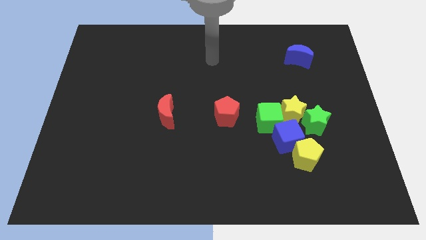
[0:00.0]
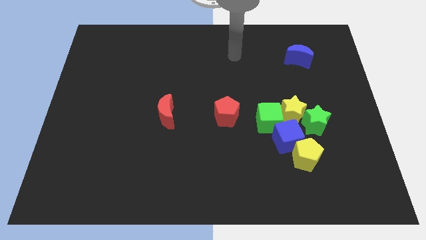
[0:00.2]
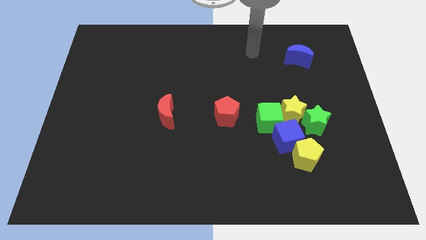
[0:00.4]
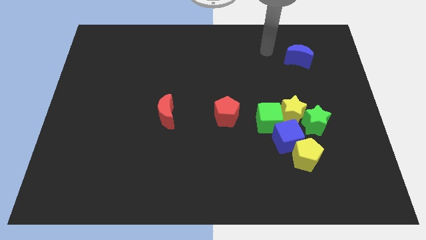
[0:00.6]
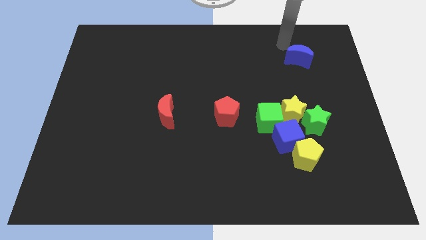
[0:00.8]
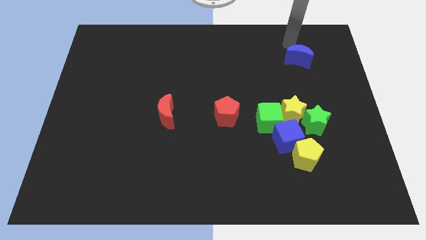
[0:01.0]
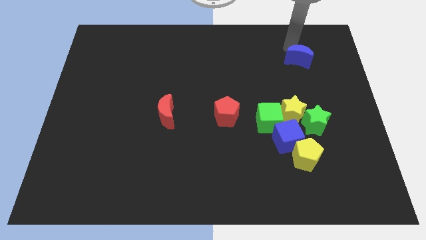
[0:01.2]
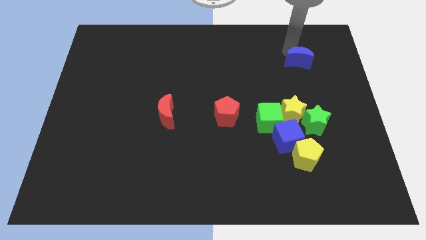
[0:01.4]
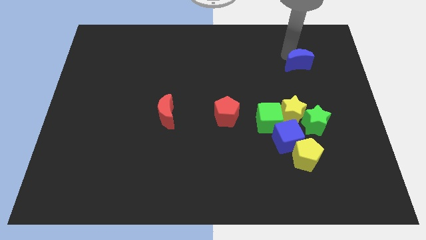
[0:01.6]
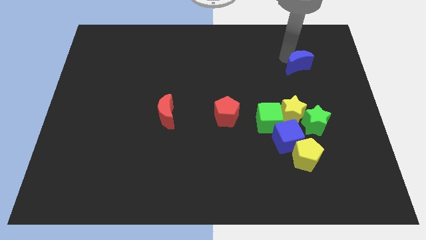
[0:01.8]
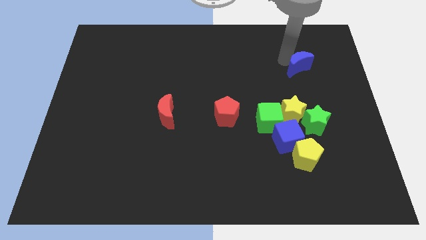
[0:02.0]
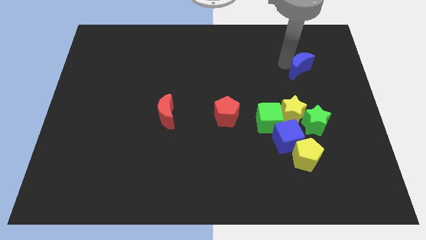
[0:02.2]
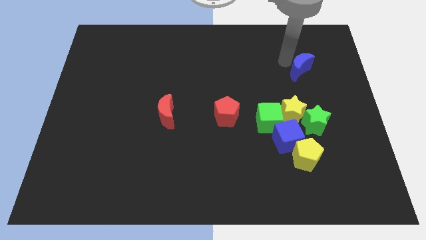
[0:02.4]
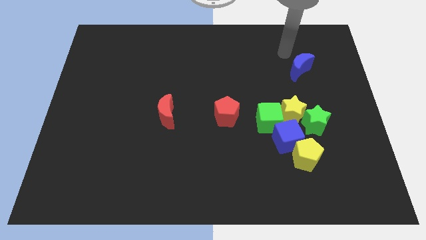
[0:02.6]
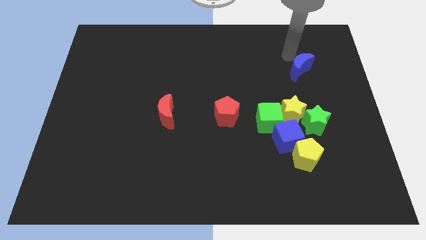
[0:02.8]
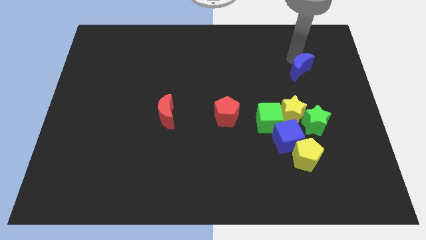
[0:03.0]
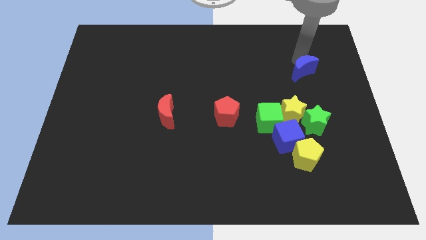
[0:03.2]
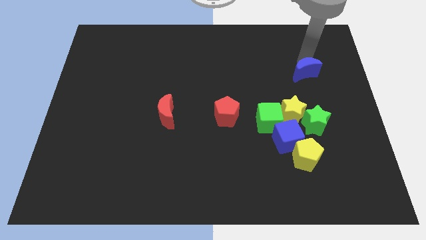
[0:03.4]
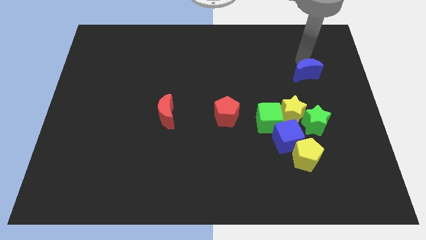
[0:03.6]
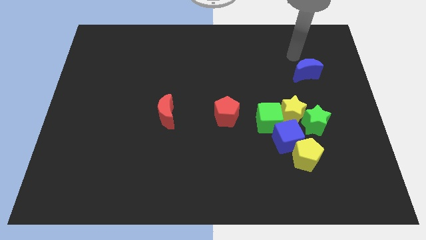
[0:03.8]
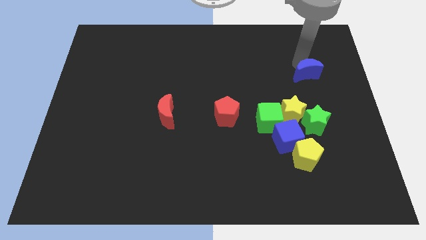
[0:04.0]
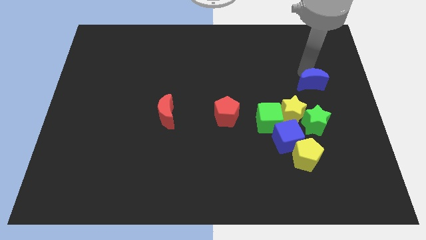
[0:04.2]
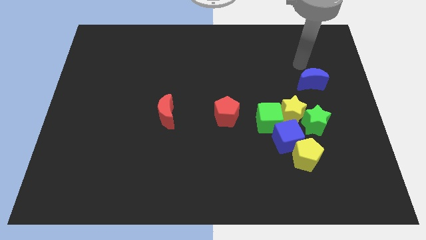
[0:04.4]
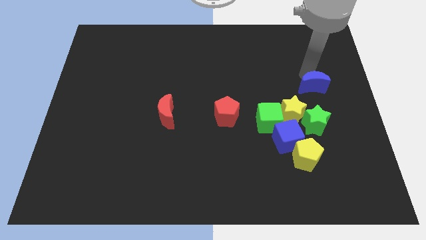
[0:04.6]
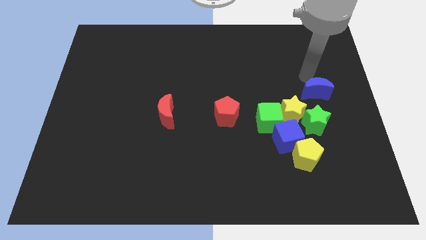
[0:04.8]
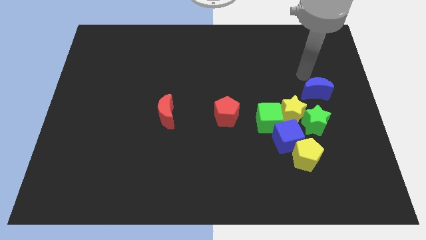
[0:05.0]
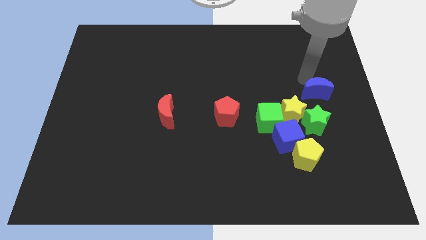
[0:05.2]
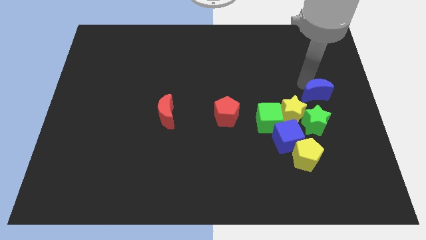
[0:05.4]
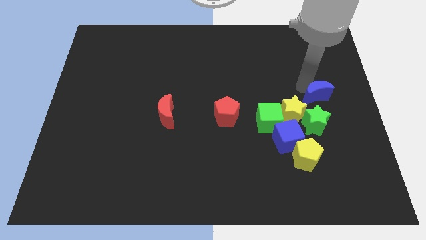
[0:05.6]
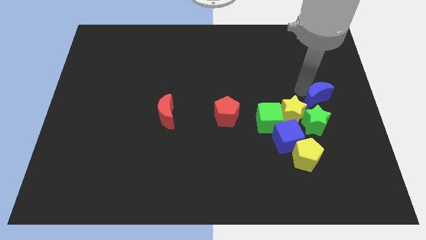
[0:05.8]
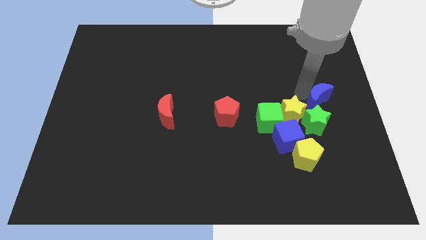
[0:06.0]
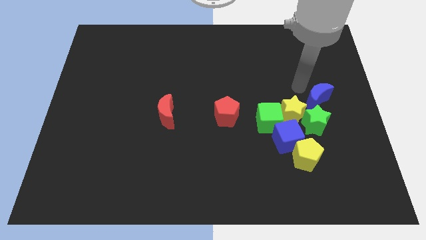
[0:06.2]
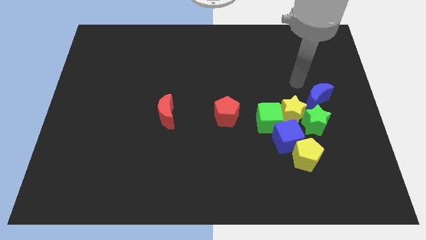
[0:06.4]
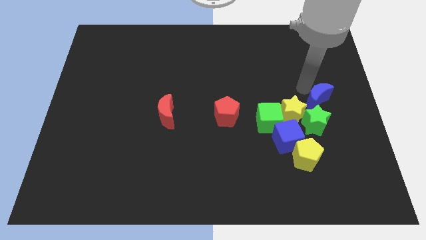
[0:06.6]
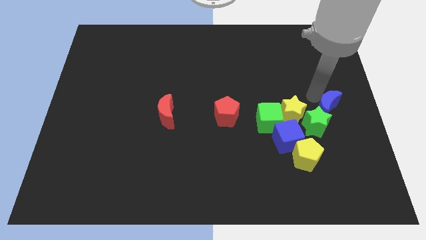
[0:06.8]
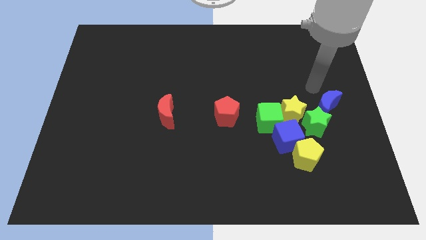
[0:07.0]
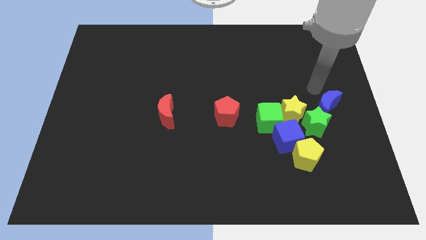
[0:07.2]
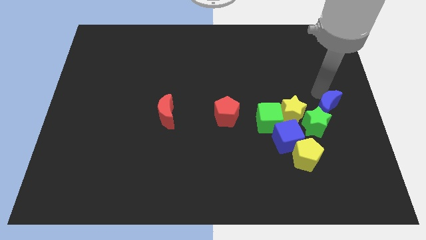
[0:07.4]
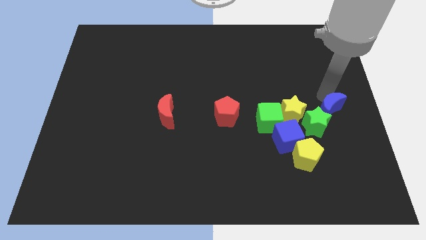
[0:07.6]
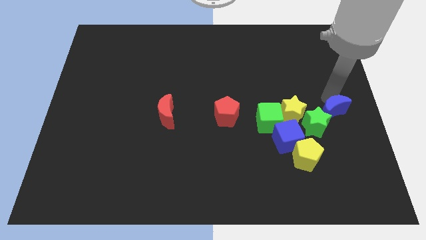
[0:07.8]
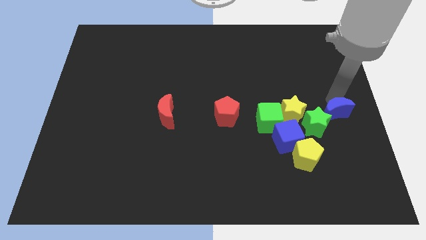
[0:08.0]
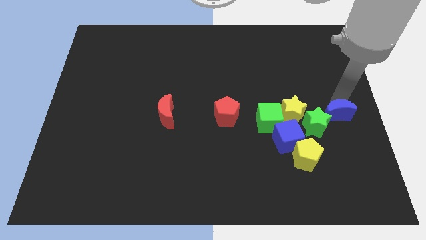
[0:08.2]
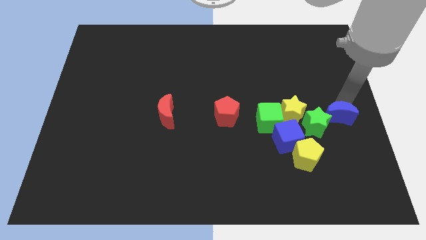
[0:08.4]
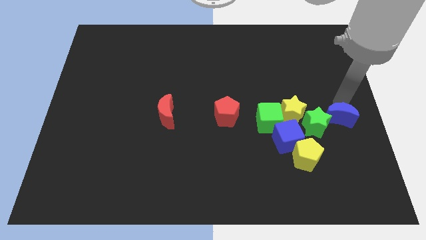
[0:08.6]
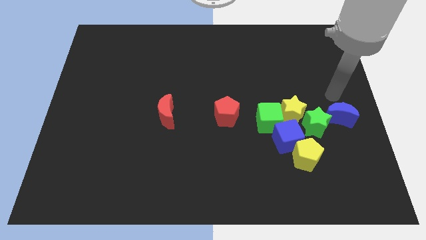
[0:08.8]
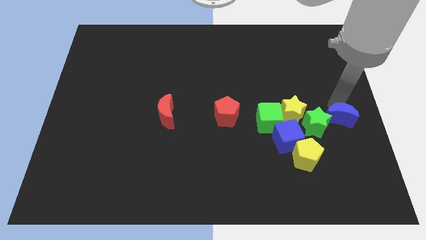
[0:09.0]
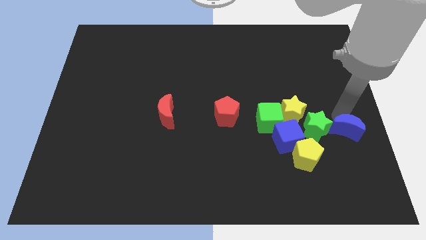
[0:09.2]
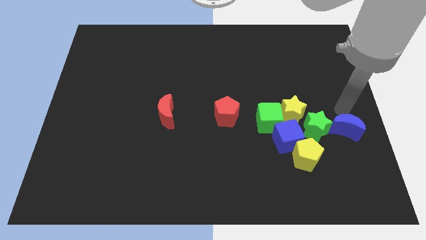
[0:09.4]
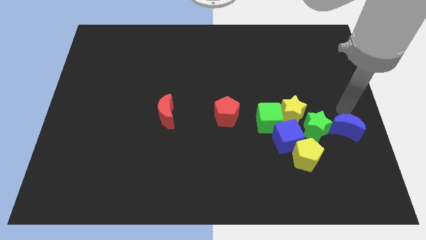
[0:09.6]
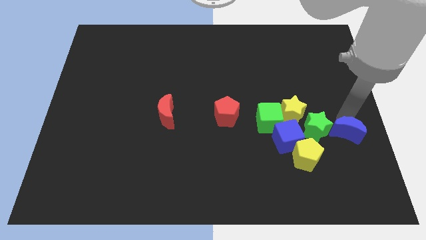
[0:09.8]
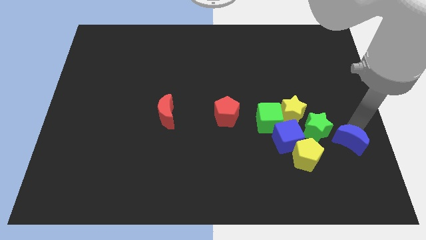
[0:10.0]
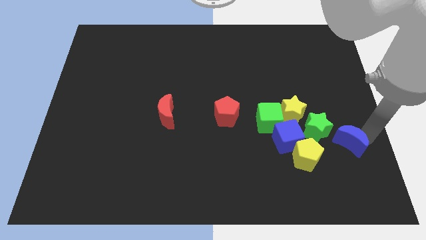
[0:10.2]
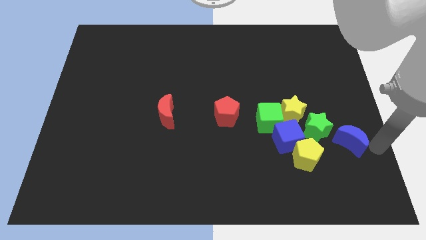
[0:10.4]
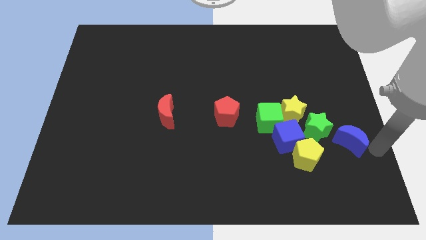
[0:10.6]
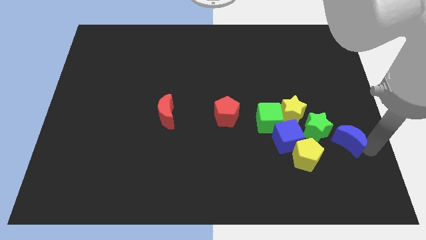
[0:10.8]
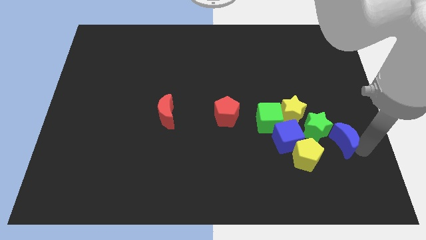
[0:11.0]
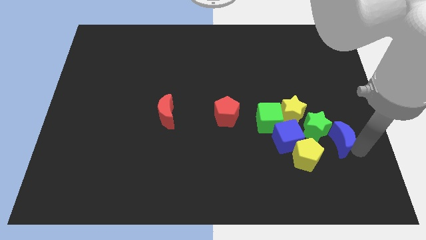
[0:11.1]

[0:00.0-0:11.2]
push the blue moon diagonally down and to the right of the yellow star

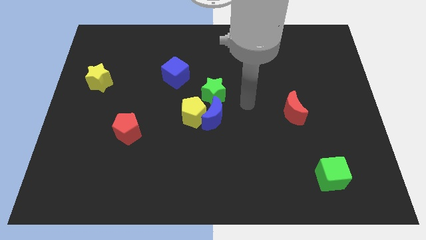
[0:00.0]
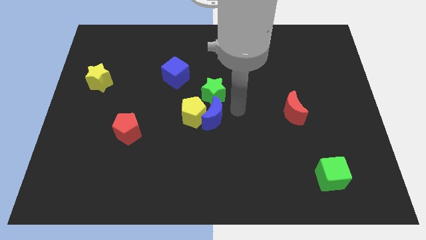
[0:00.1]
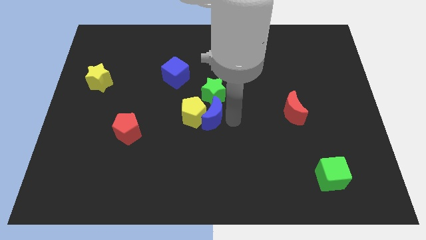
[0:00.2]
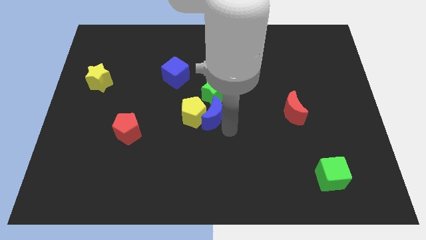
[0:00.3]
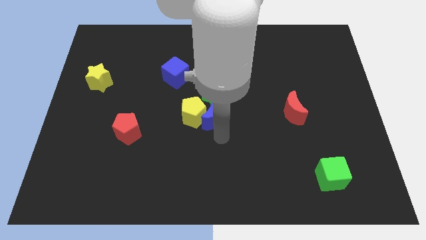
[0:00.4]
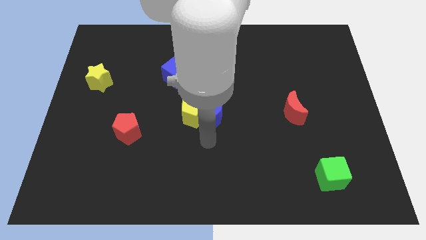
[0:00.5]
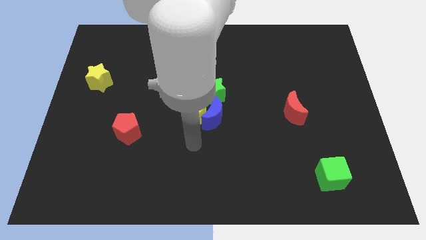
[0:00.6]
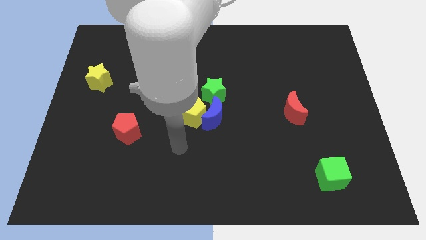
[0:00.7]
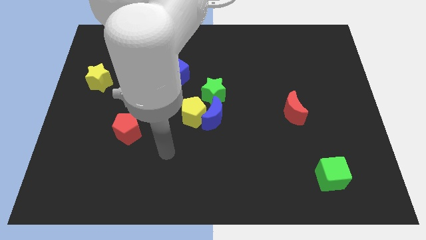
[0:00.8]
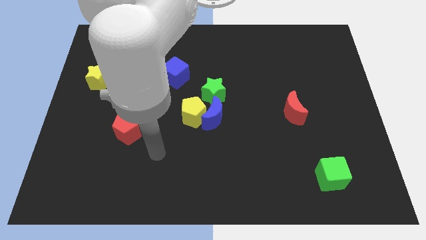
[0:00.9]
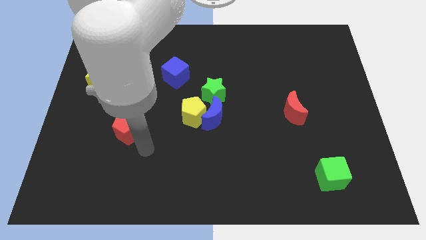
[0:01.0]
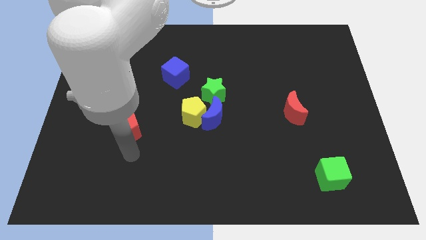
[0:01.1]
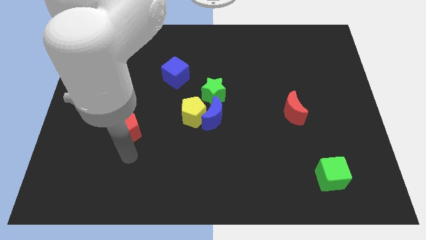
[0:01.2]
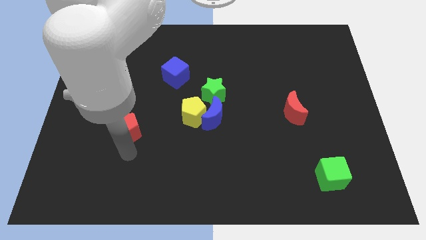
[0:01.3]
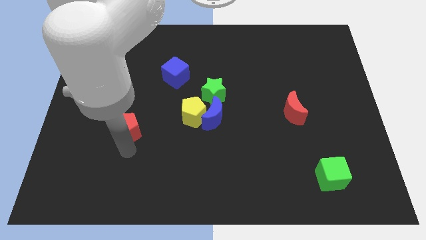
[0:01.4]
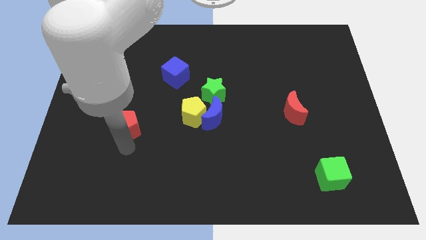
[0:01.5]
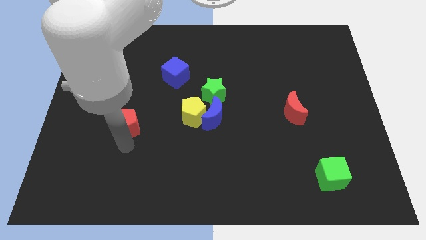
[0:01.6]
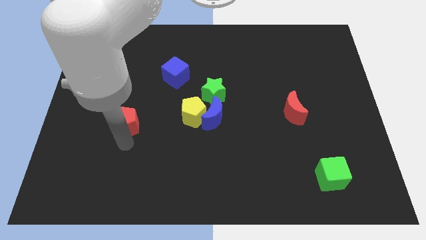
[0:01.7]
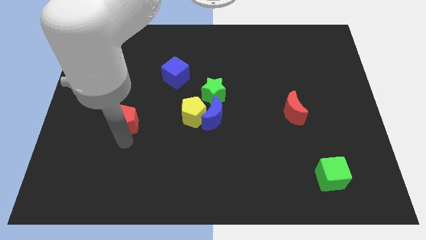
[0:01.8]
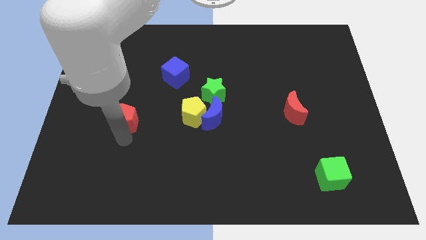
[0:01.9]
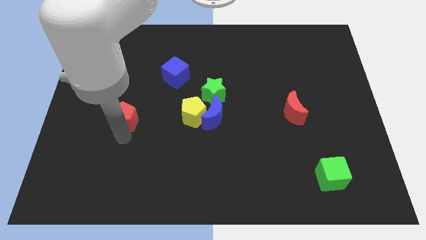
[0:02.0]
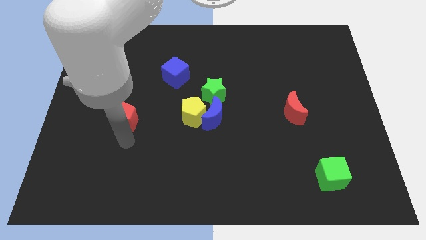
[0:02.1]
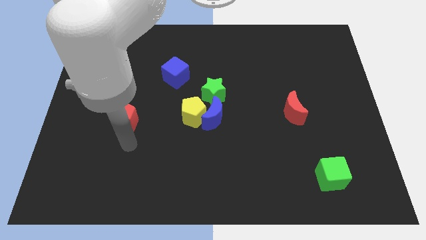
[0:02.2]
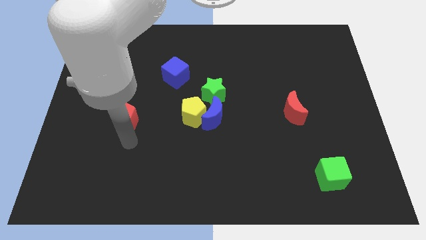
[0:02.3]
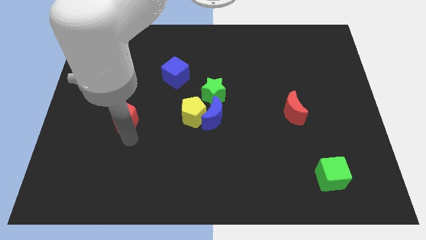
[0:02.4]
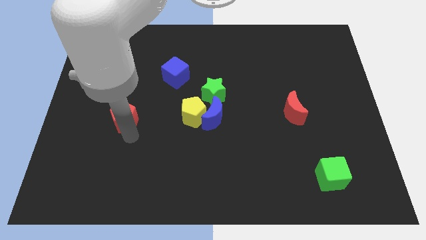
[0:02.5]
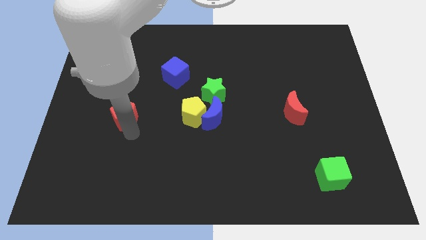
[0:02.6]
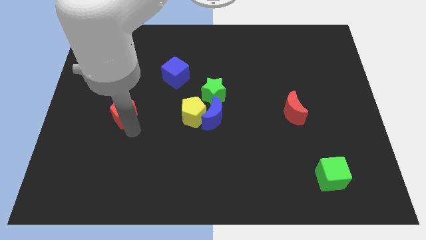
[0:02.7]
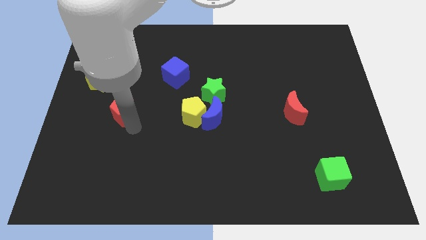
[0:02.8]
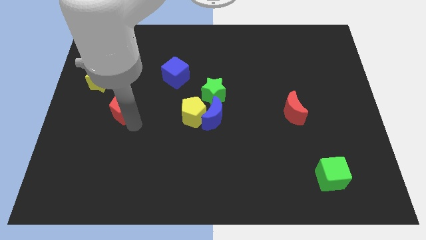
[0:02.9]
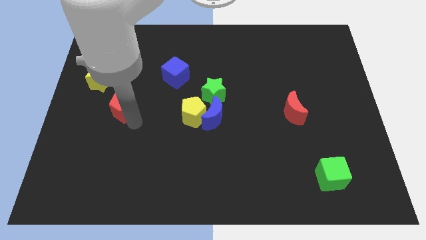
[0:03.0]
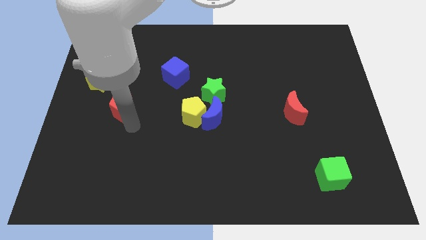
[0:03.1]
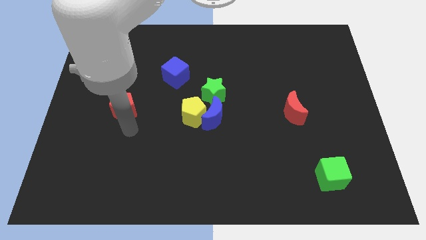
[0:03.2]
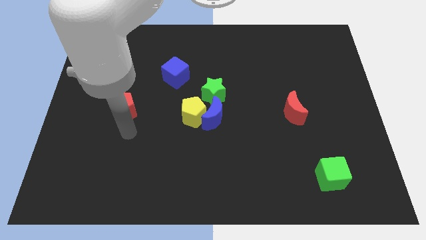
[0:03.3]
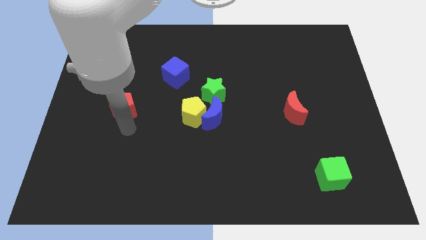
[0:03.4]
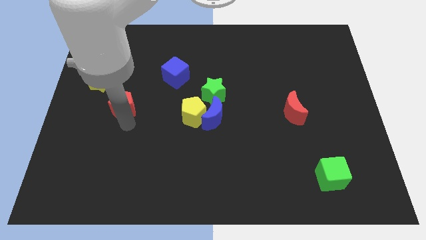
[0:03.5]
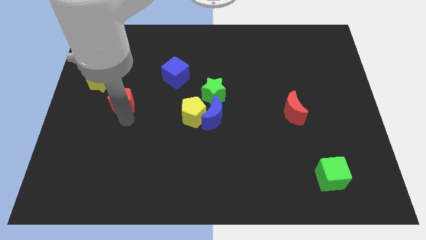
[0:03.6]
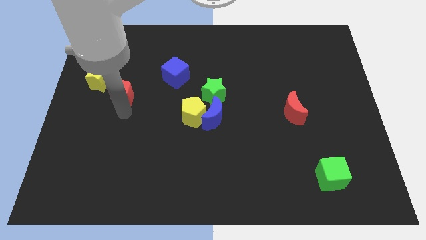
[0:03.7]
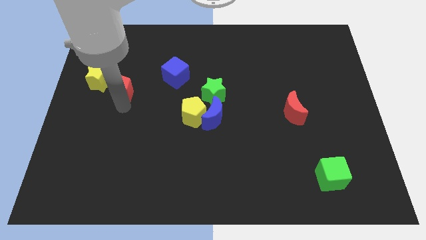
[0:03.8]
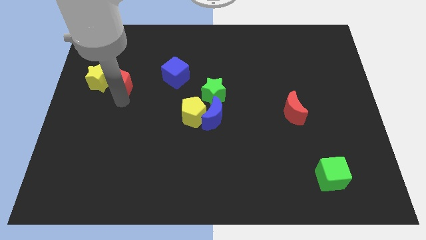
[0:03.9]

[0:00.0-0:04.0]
push the red pentagon to the top right side of the yellow star
